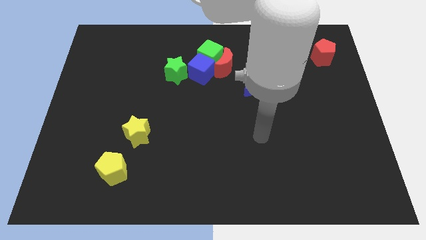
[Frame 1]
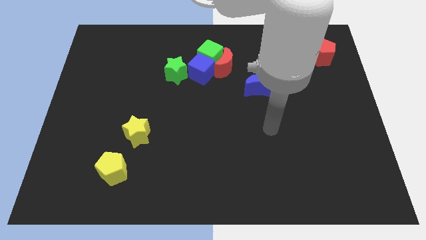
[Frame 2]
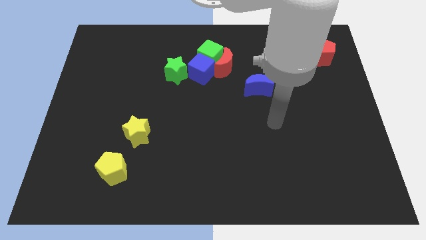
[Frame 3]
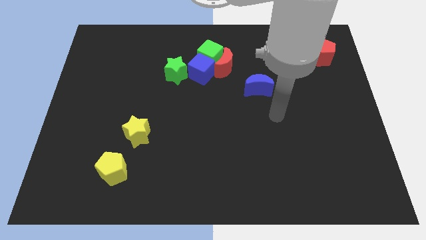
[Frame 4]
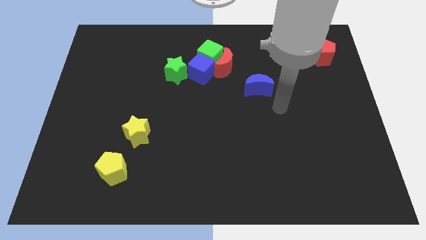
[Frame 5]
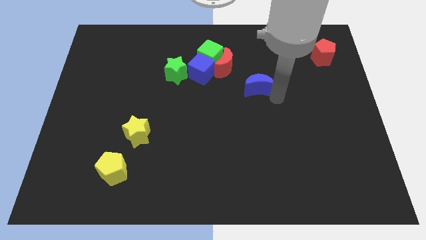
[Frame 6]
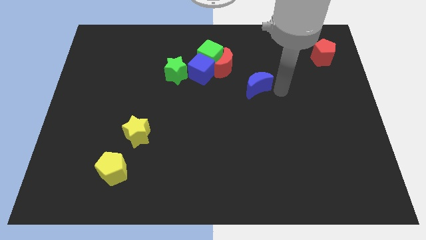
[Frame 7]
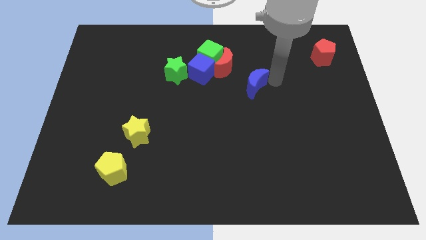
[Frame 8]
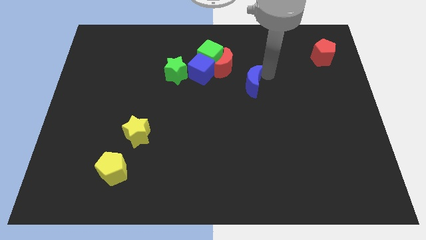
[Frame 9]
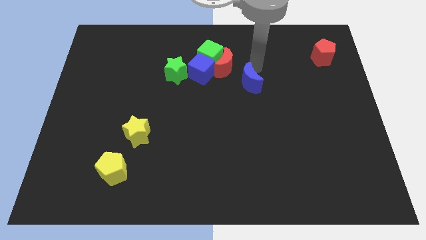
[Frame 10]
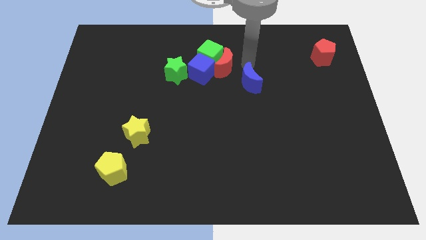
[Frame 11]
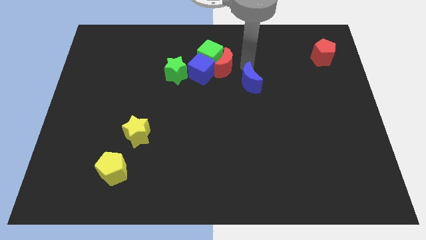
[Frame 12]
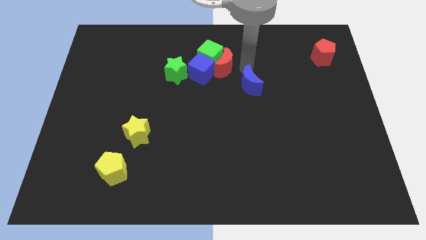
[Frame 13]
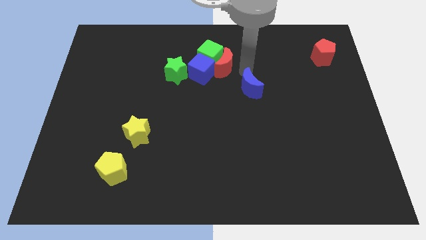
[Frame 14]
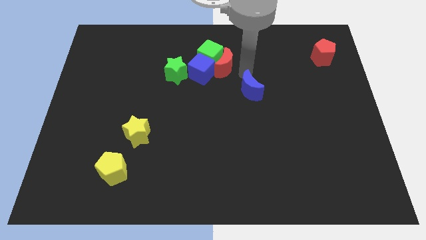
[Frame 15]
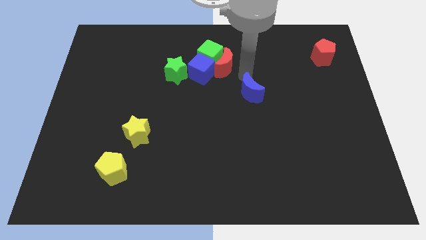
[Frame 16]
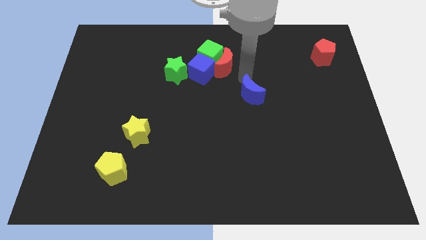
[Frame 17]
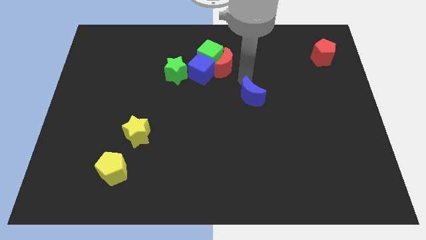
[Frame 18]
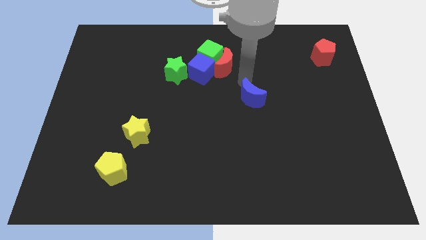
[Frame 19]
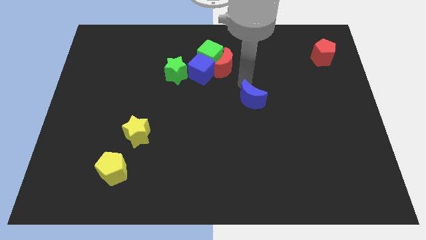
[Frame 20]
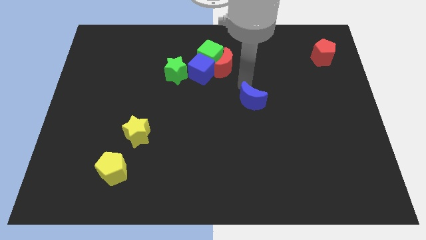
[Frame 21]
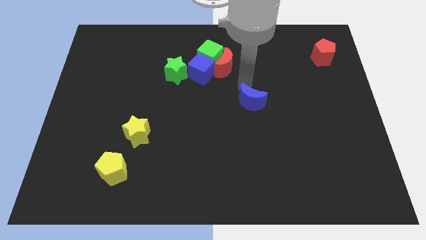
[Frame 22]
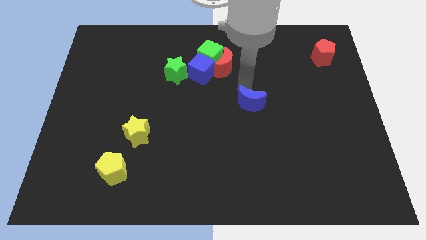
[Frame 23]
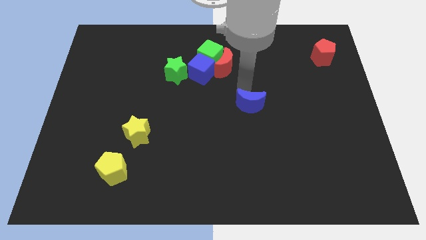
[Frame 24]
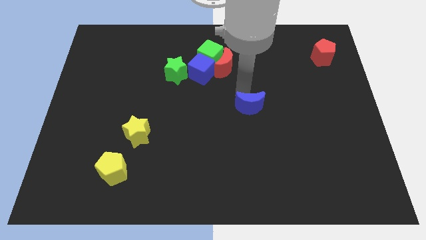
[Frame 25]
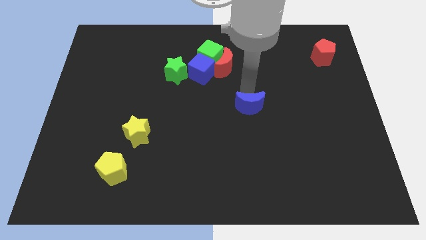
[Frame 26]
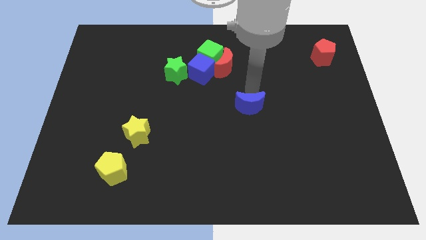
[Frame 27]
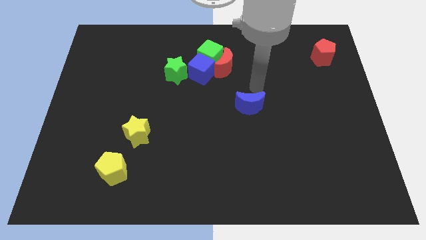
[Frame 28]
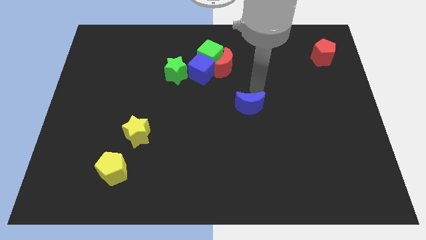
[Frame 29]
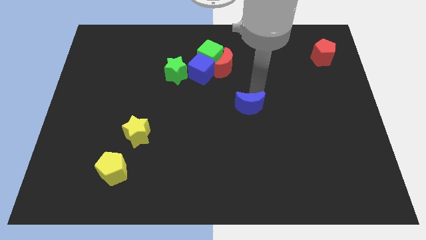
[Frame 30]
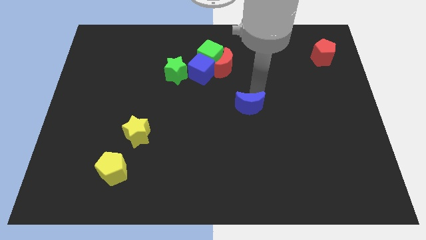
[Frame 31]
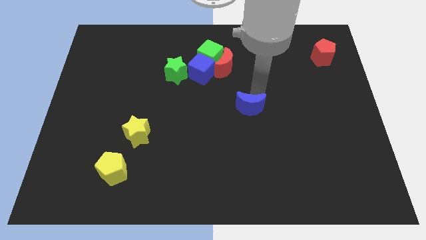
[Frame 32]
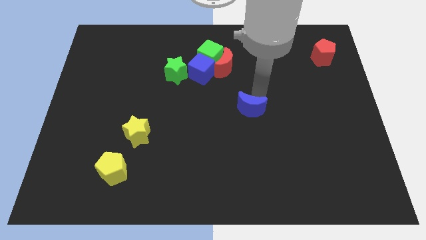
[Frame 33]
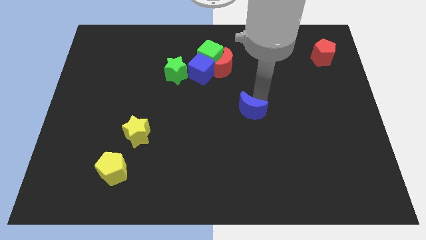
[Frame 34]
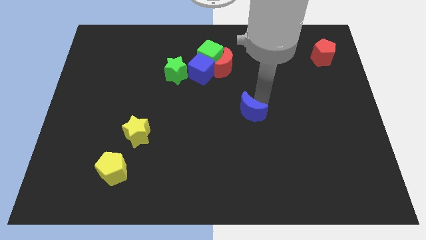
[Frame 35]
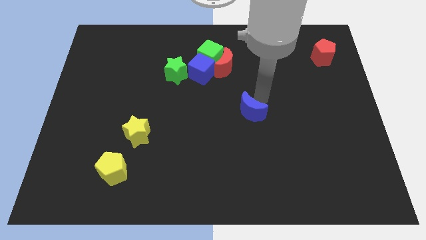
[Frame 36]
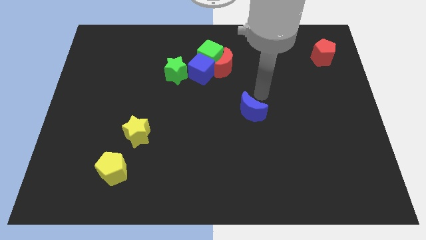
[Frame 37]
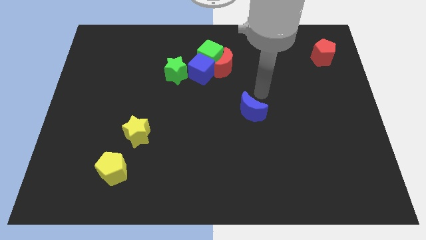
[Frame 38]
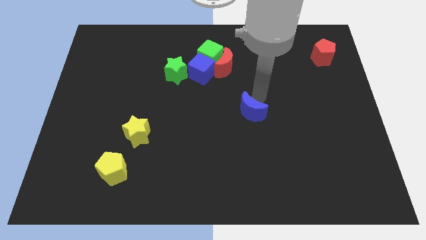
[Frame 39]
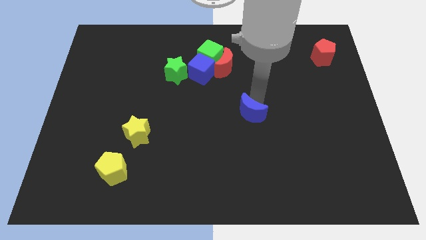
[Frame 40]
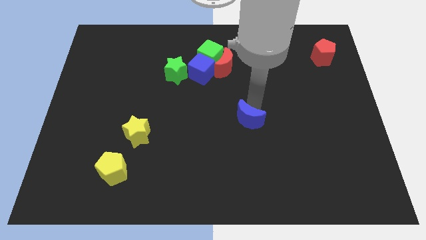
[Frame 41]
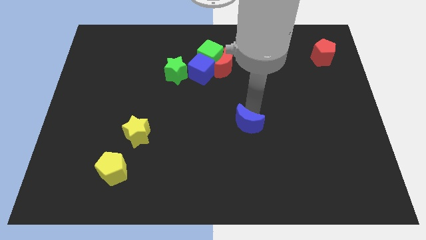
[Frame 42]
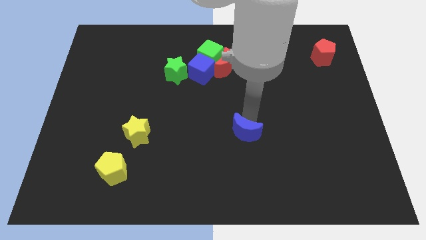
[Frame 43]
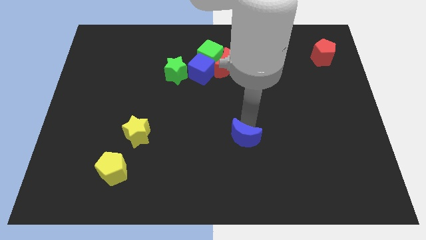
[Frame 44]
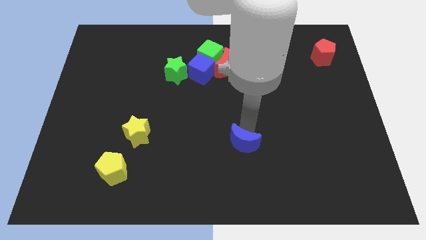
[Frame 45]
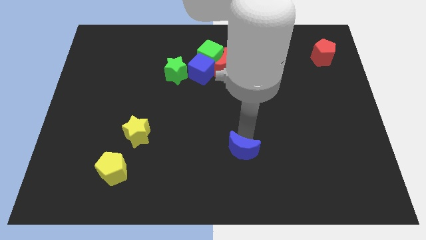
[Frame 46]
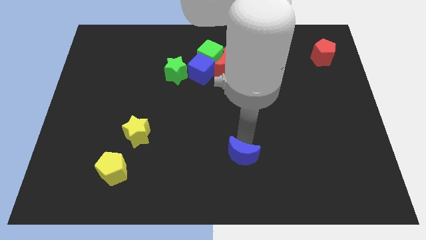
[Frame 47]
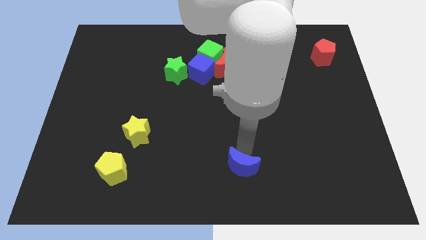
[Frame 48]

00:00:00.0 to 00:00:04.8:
put the blue moon to the bottom side

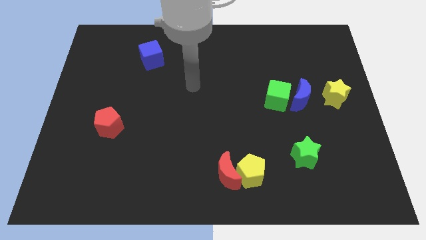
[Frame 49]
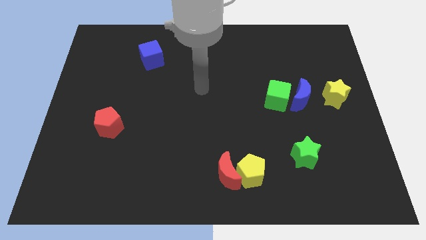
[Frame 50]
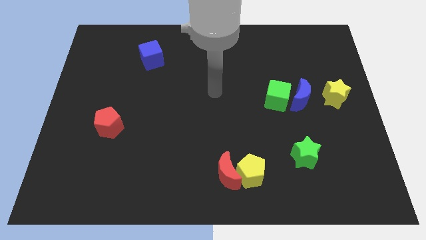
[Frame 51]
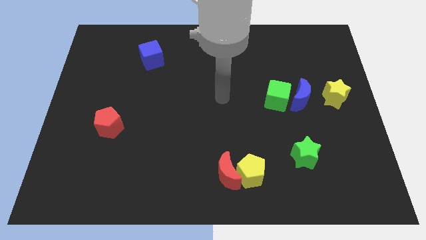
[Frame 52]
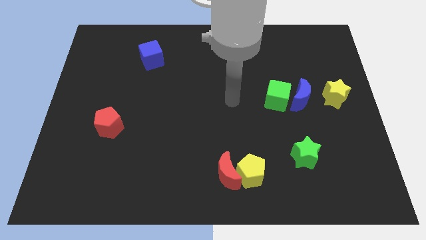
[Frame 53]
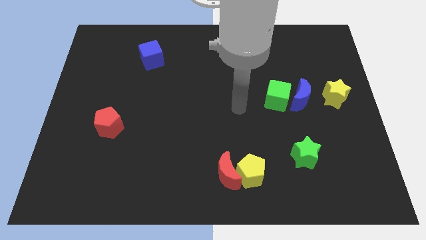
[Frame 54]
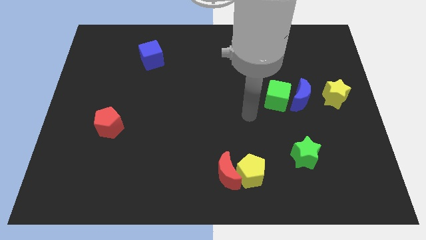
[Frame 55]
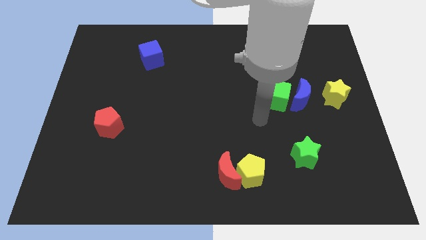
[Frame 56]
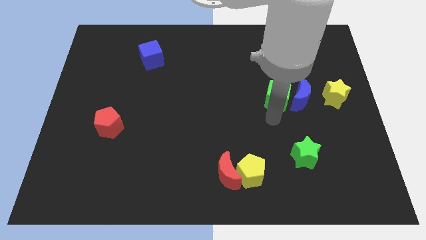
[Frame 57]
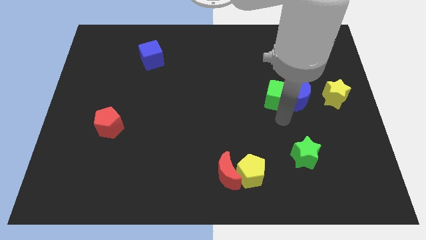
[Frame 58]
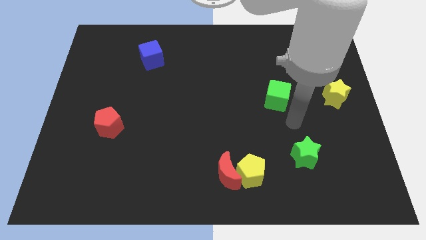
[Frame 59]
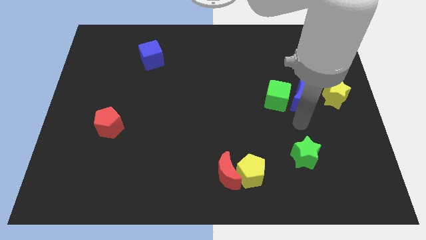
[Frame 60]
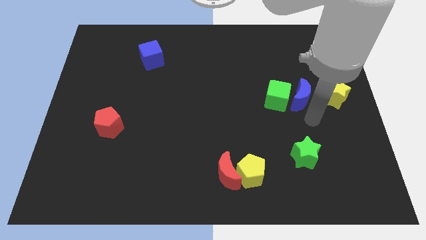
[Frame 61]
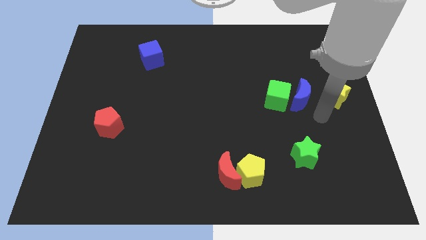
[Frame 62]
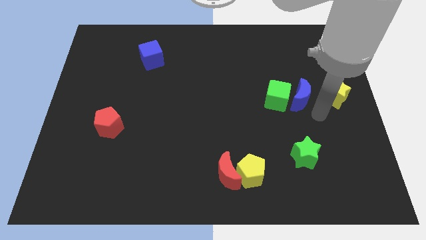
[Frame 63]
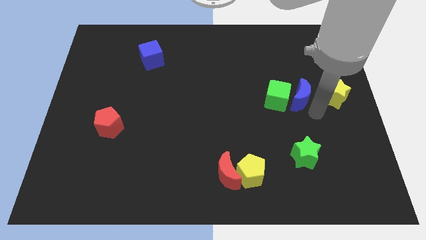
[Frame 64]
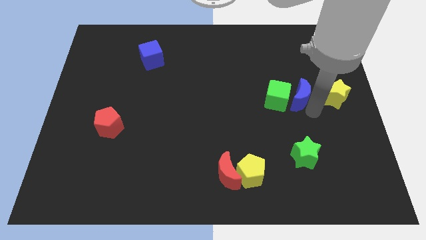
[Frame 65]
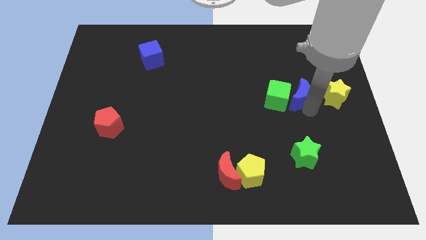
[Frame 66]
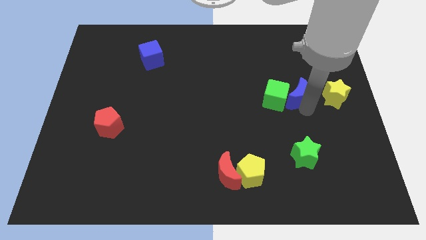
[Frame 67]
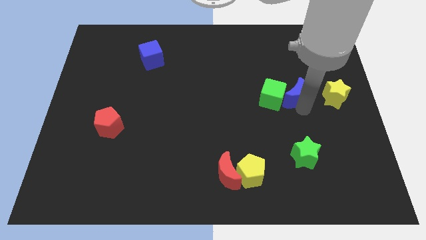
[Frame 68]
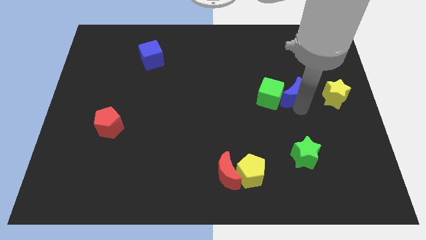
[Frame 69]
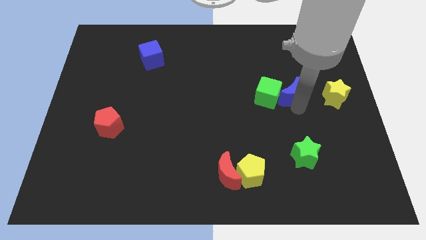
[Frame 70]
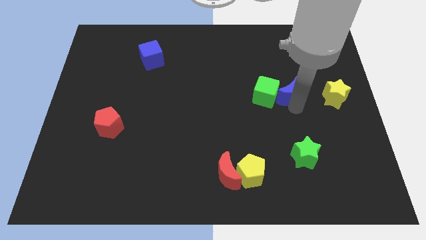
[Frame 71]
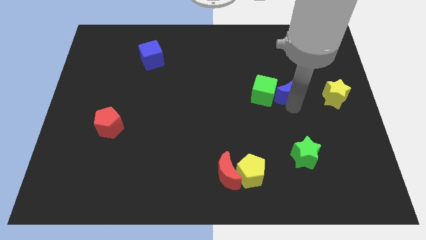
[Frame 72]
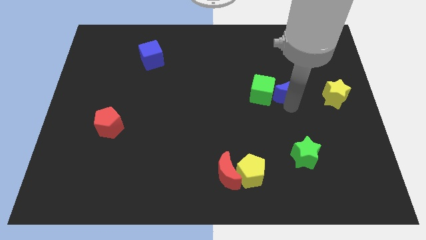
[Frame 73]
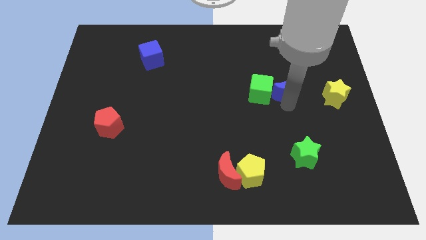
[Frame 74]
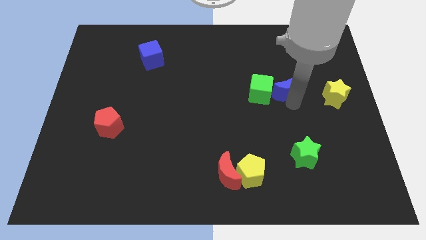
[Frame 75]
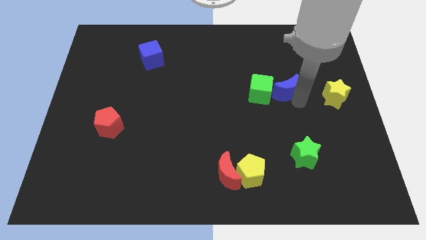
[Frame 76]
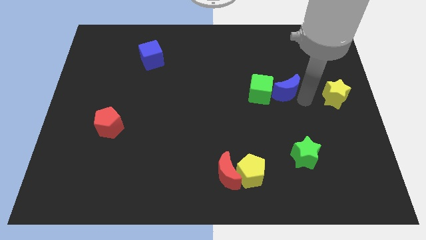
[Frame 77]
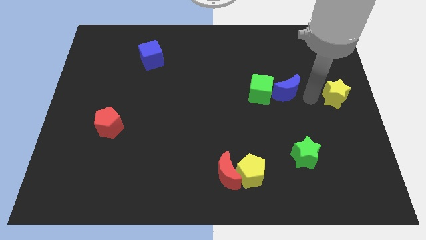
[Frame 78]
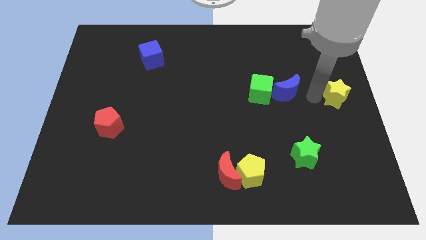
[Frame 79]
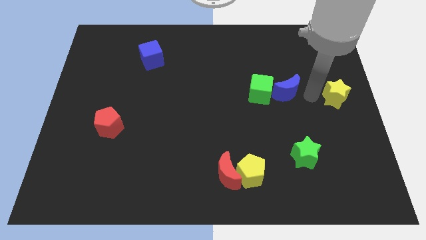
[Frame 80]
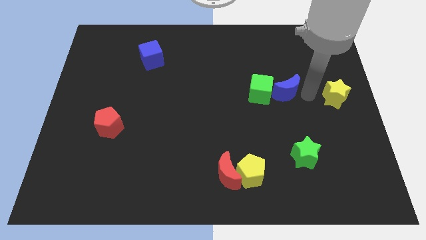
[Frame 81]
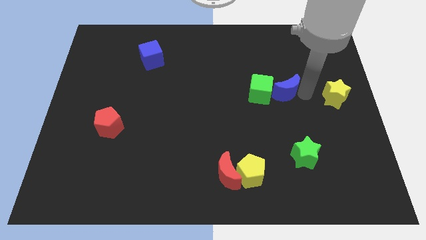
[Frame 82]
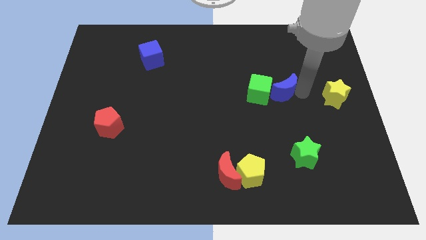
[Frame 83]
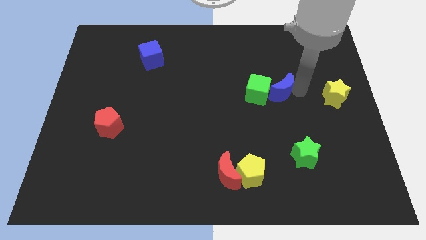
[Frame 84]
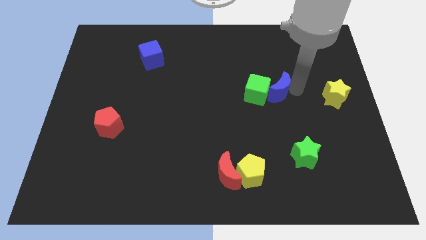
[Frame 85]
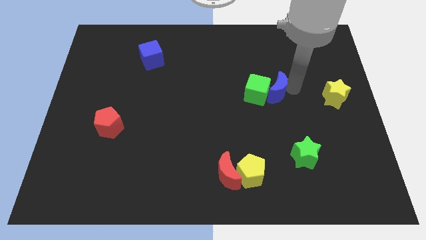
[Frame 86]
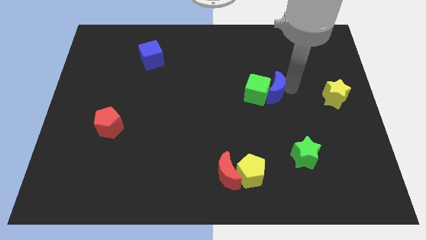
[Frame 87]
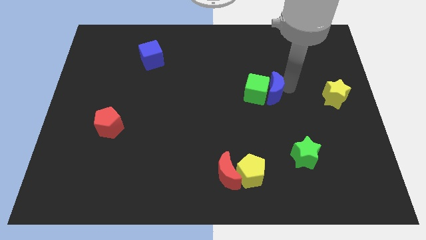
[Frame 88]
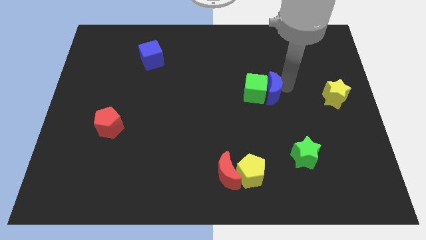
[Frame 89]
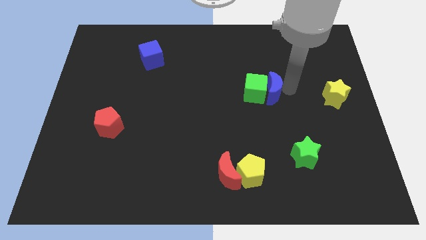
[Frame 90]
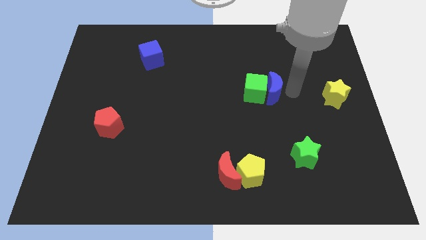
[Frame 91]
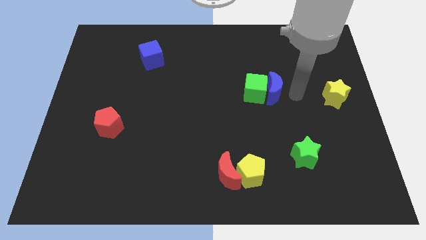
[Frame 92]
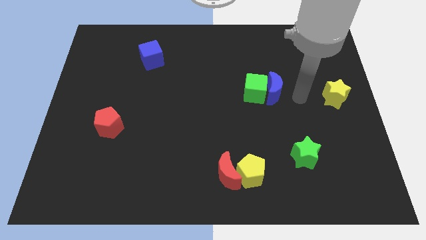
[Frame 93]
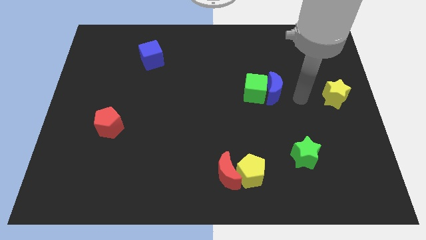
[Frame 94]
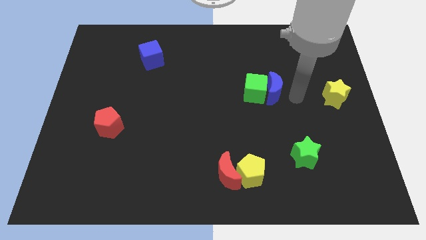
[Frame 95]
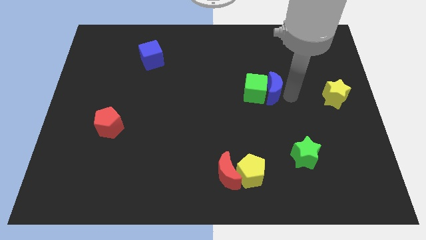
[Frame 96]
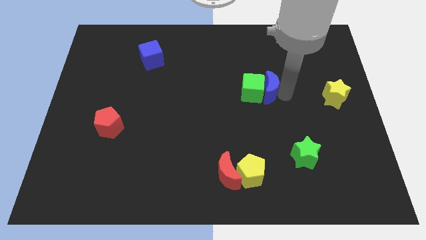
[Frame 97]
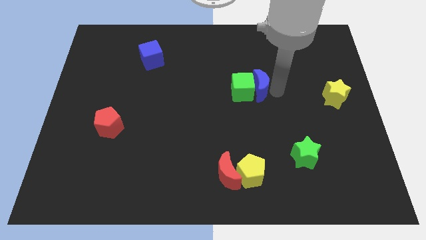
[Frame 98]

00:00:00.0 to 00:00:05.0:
move the blue moon to the middle of the board
